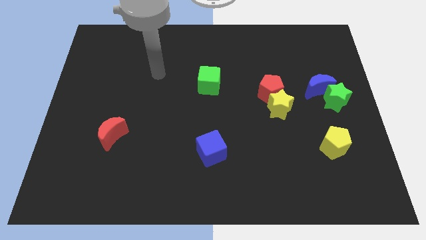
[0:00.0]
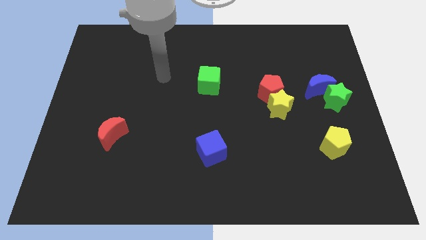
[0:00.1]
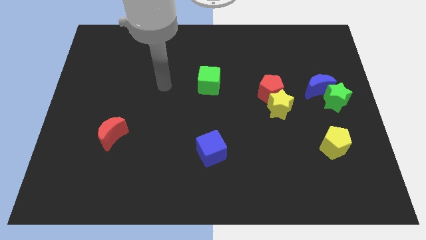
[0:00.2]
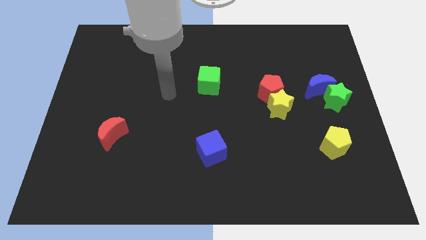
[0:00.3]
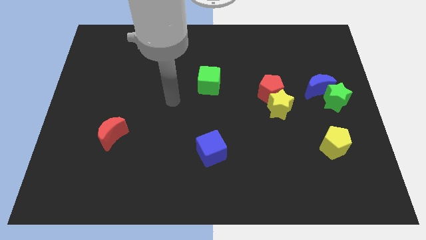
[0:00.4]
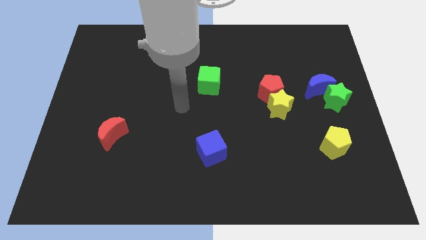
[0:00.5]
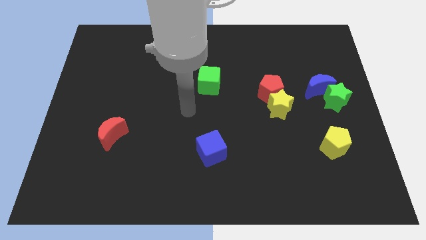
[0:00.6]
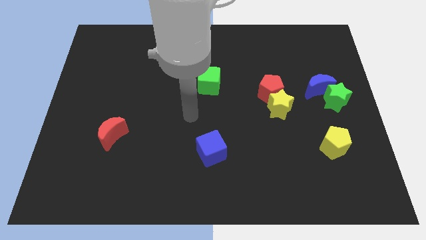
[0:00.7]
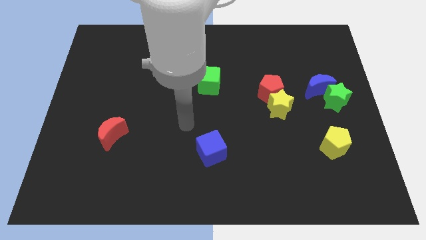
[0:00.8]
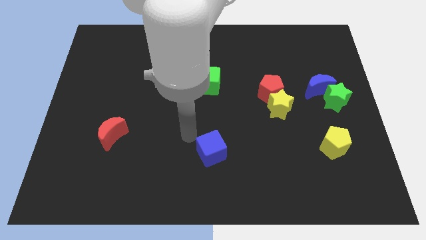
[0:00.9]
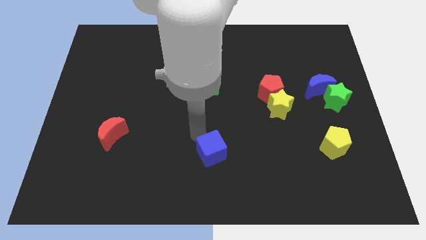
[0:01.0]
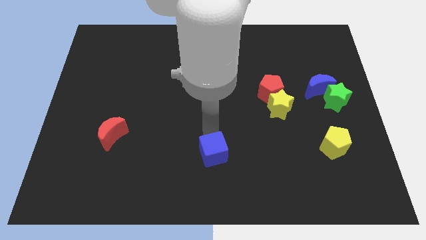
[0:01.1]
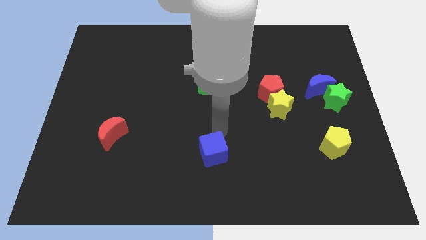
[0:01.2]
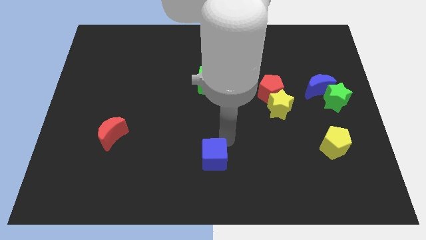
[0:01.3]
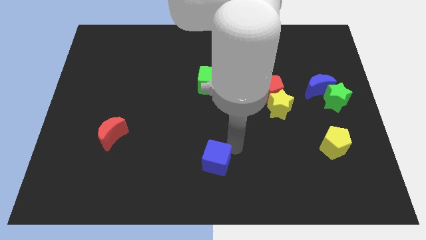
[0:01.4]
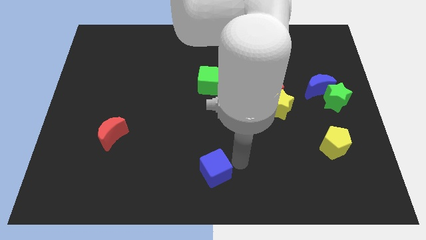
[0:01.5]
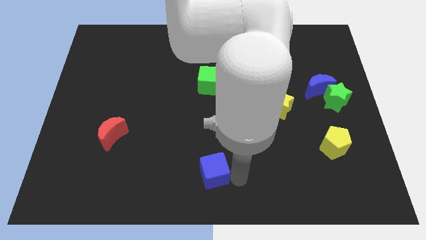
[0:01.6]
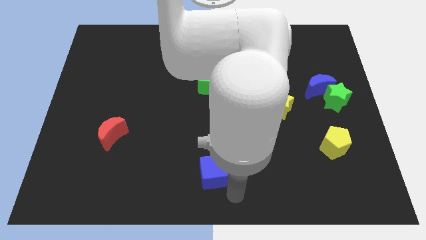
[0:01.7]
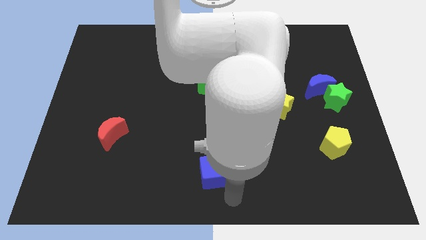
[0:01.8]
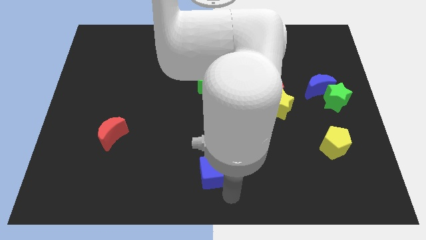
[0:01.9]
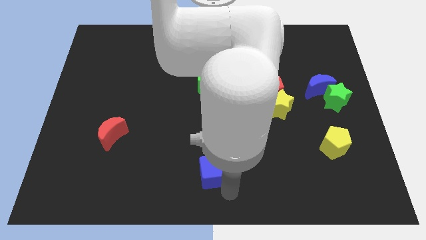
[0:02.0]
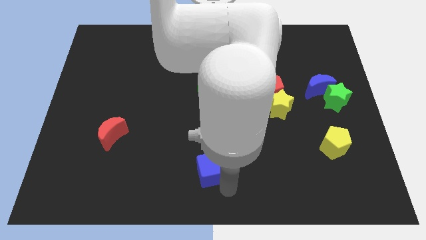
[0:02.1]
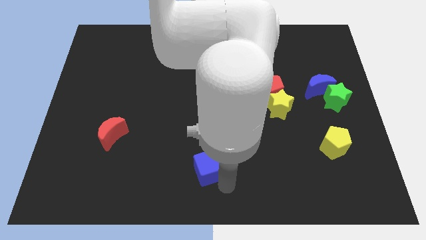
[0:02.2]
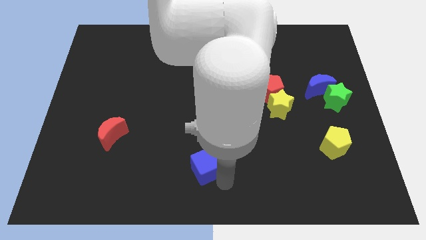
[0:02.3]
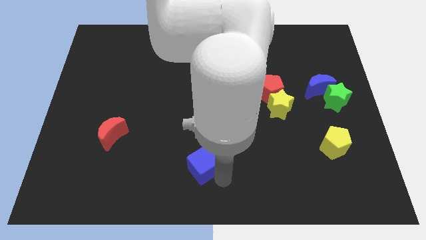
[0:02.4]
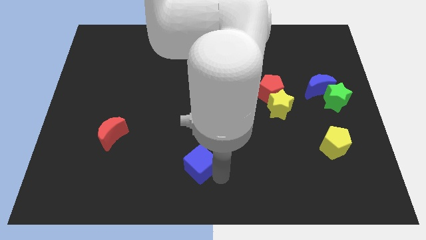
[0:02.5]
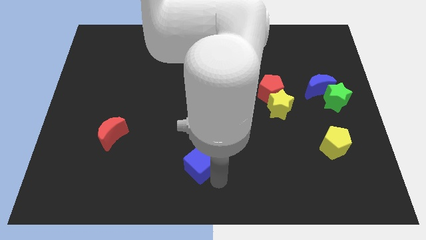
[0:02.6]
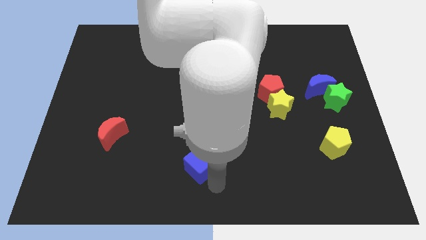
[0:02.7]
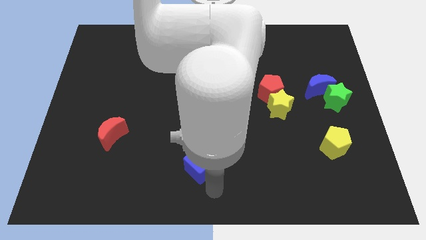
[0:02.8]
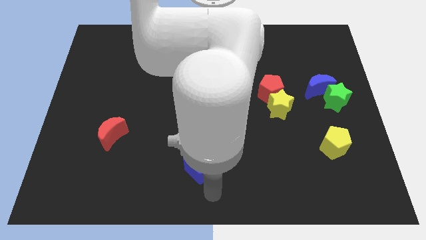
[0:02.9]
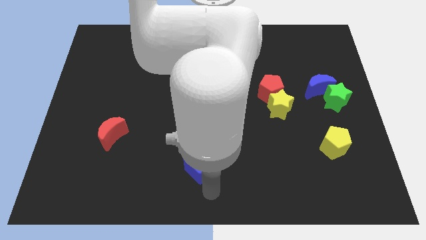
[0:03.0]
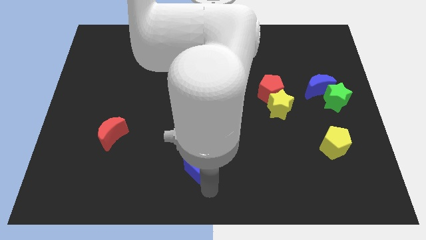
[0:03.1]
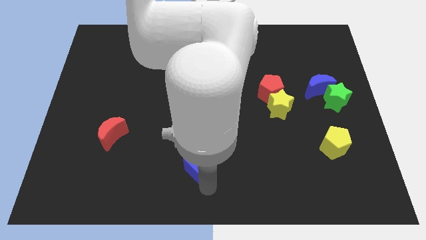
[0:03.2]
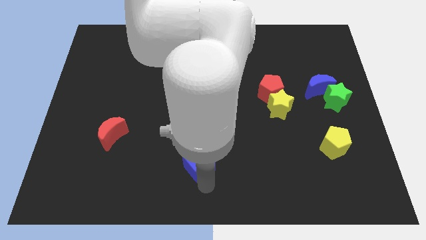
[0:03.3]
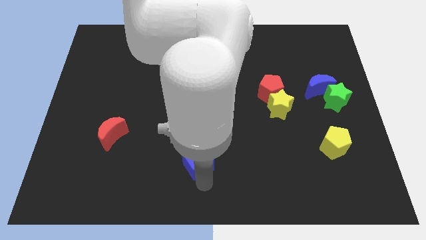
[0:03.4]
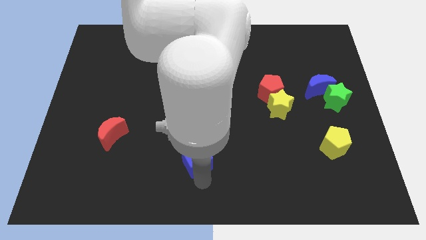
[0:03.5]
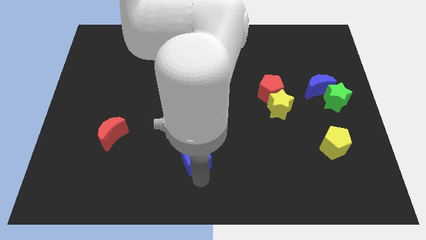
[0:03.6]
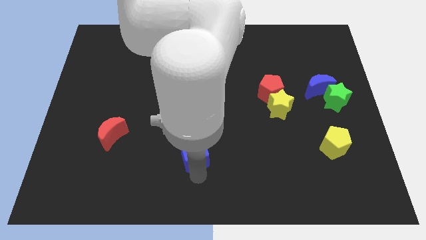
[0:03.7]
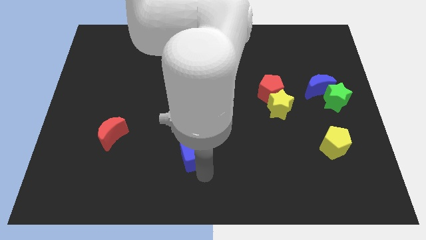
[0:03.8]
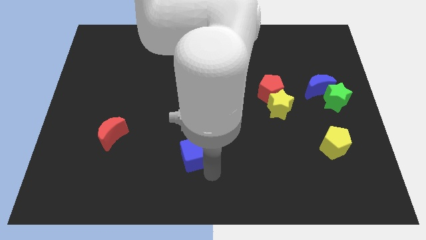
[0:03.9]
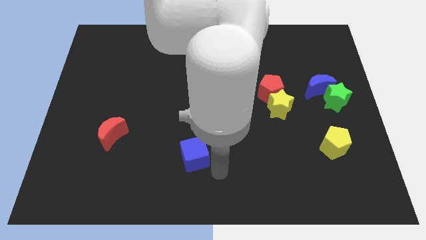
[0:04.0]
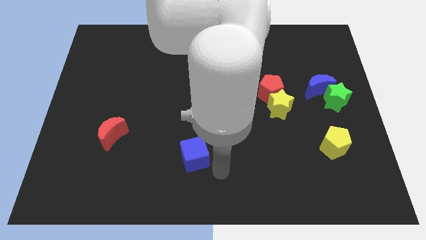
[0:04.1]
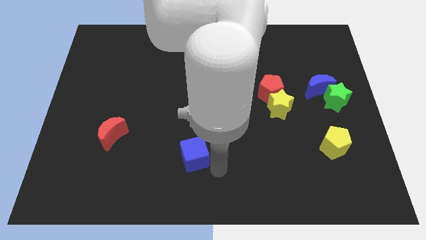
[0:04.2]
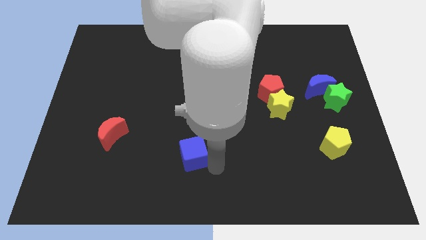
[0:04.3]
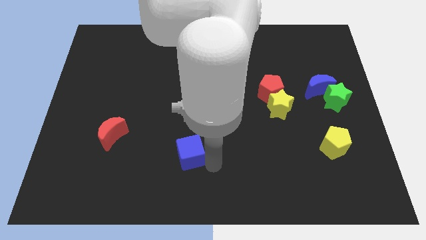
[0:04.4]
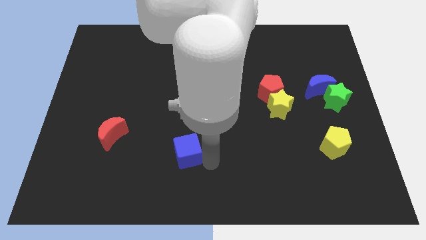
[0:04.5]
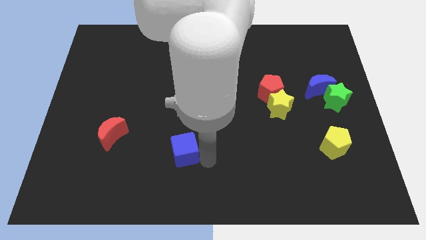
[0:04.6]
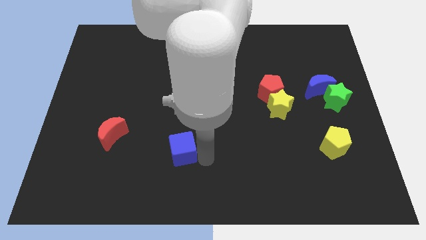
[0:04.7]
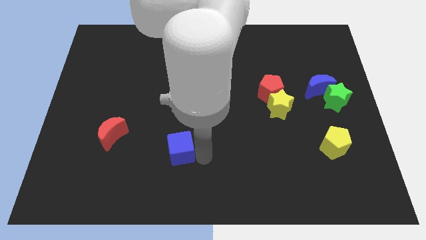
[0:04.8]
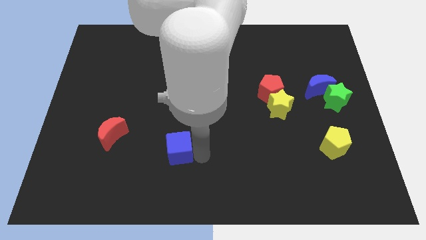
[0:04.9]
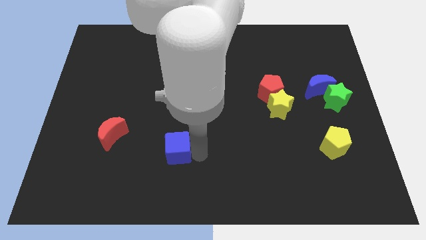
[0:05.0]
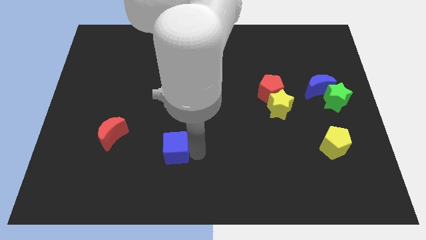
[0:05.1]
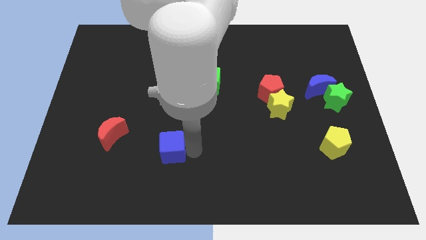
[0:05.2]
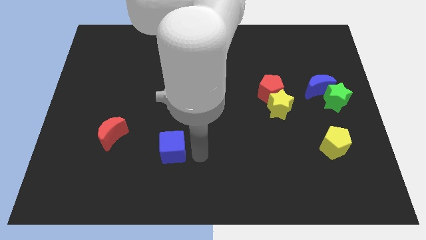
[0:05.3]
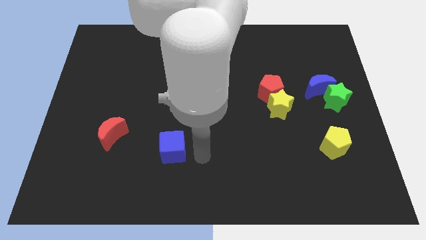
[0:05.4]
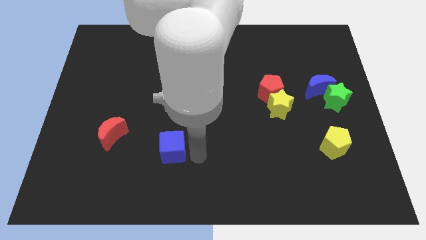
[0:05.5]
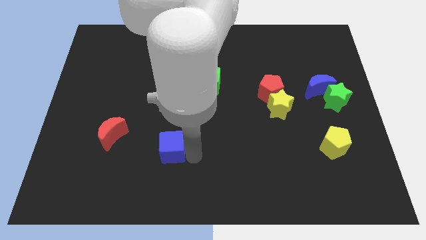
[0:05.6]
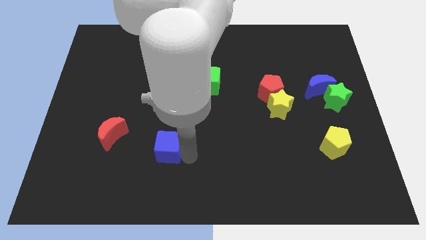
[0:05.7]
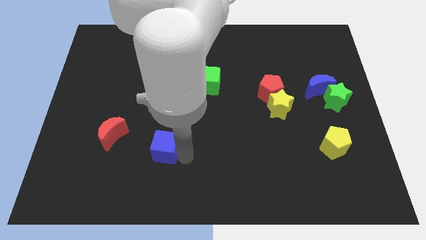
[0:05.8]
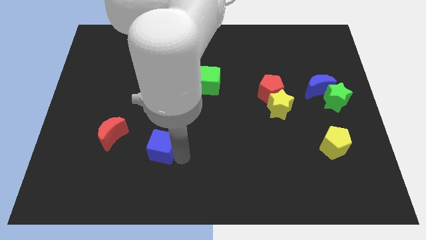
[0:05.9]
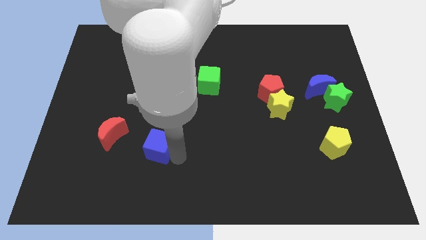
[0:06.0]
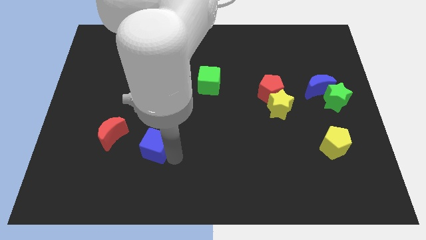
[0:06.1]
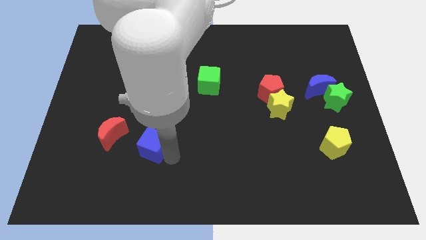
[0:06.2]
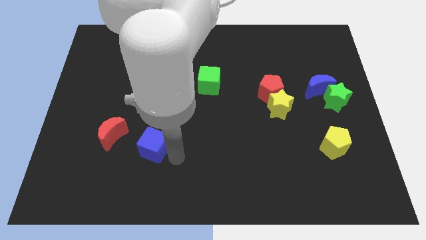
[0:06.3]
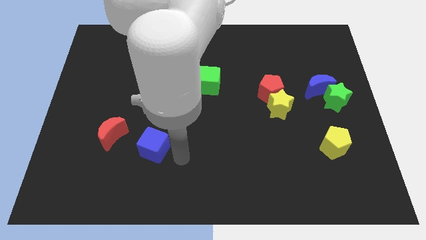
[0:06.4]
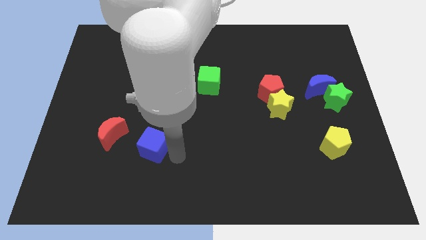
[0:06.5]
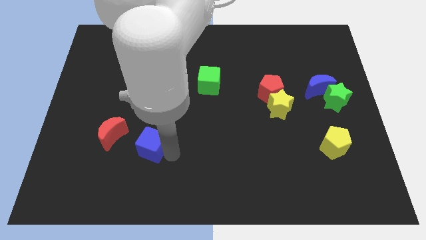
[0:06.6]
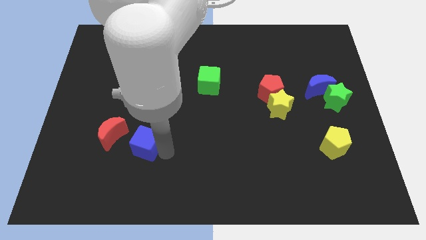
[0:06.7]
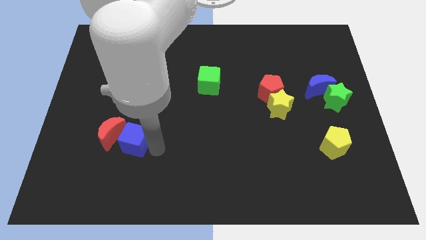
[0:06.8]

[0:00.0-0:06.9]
put the blue cube to the red moon
